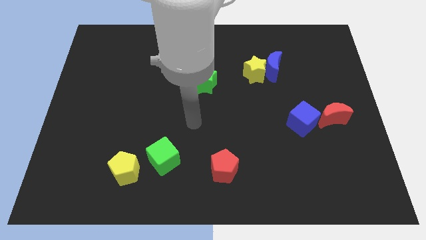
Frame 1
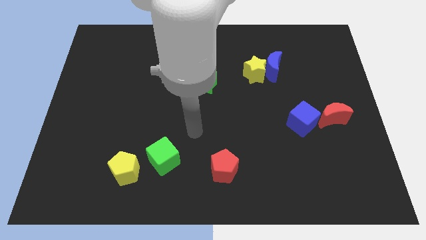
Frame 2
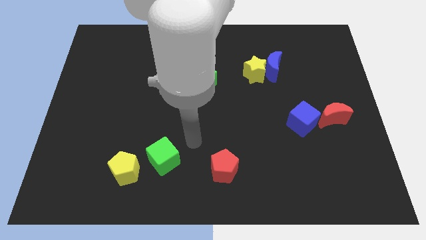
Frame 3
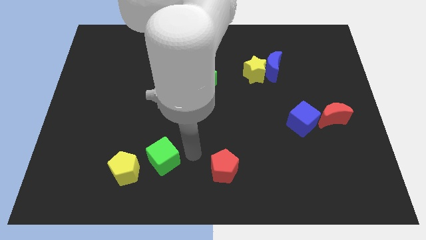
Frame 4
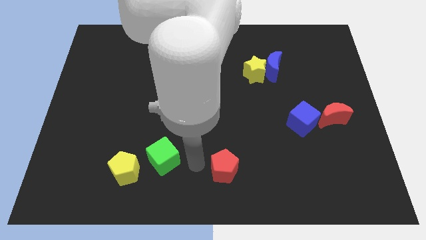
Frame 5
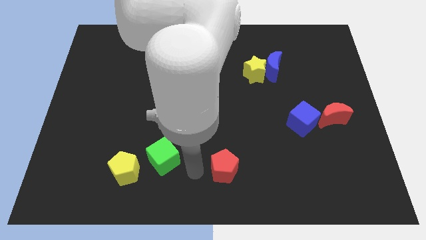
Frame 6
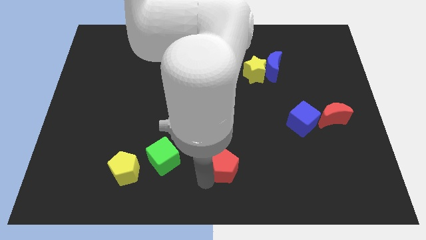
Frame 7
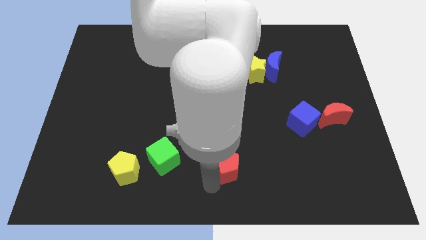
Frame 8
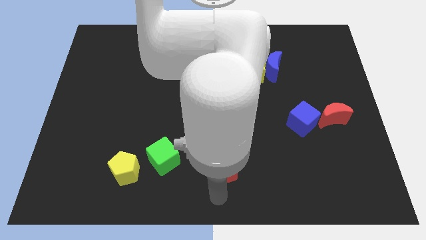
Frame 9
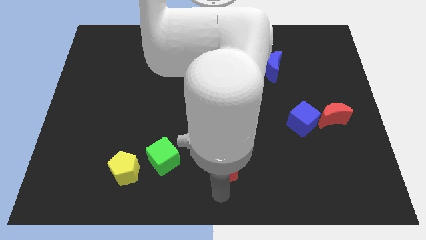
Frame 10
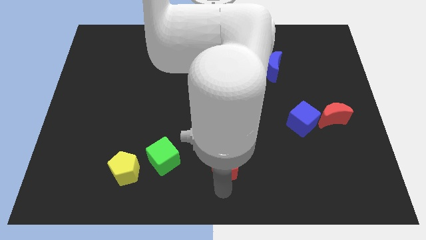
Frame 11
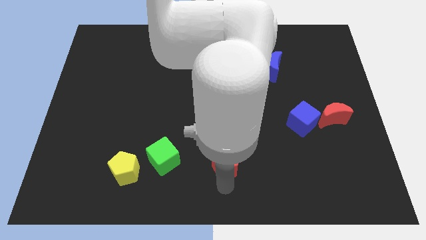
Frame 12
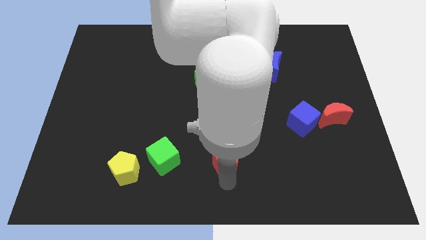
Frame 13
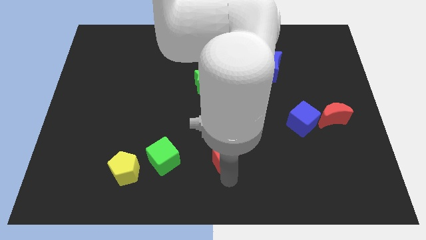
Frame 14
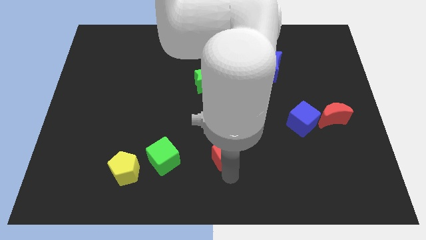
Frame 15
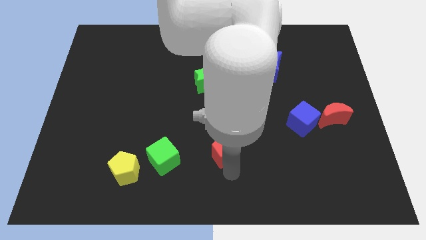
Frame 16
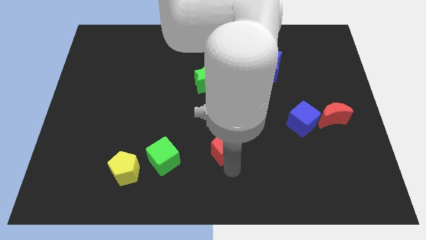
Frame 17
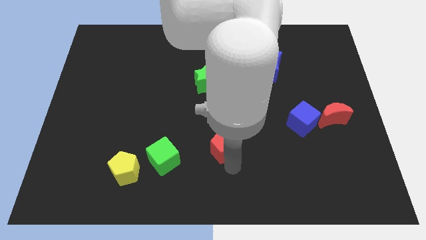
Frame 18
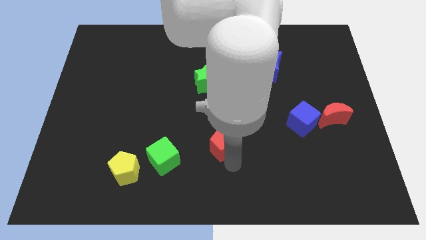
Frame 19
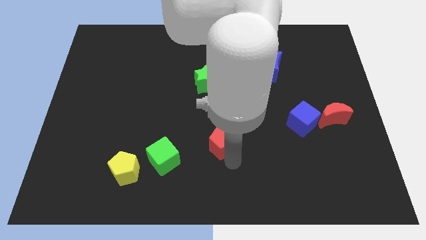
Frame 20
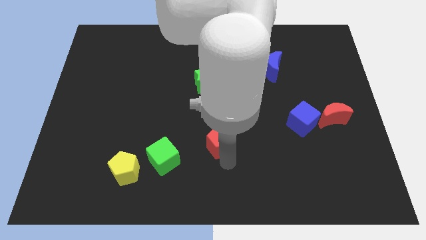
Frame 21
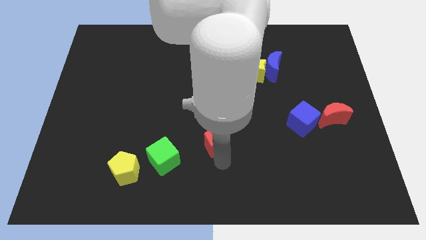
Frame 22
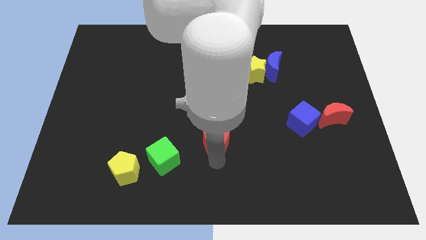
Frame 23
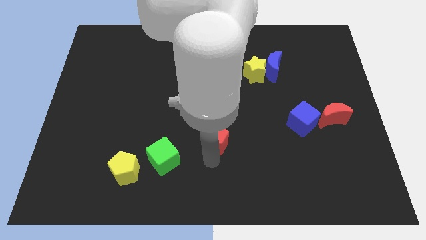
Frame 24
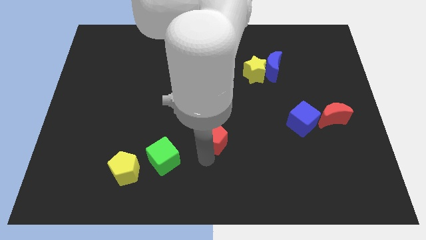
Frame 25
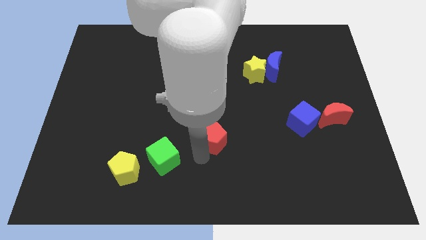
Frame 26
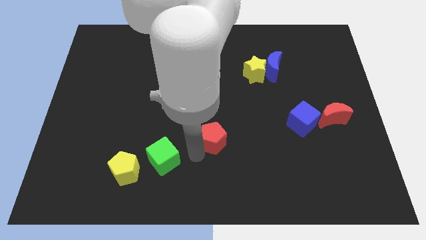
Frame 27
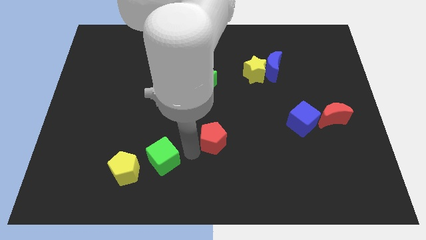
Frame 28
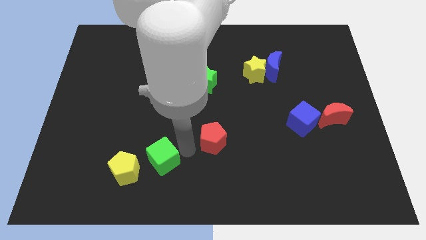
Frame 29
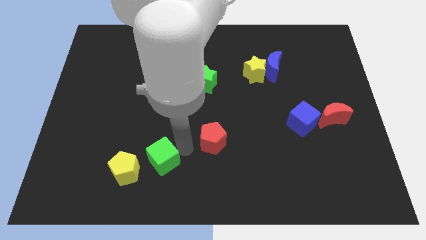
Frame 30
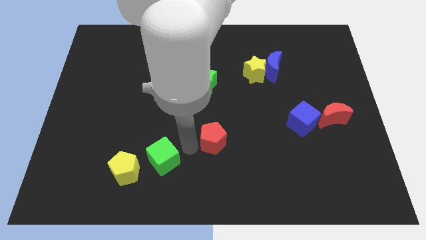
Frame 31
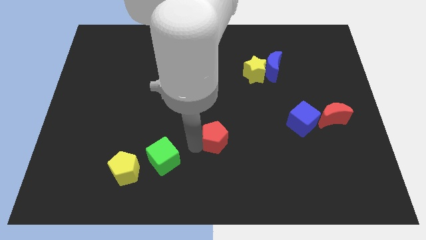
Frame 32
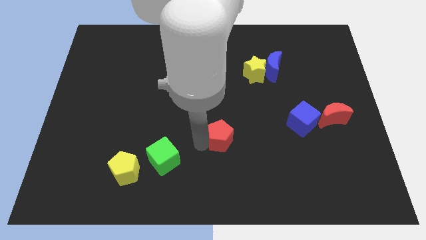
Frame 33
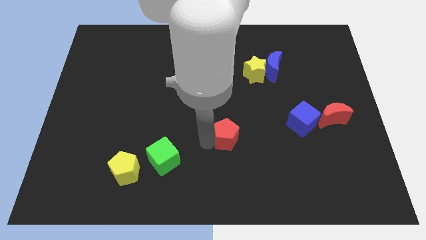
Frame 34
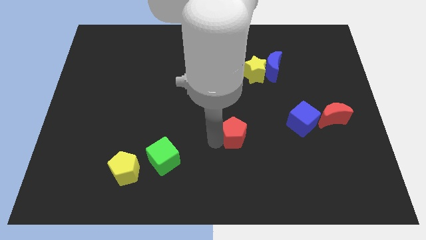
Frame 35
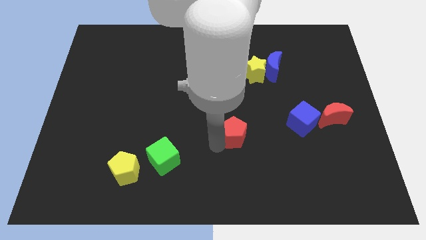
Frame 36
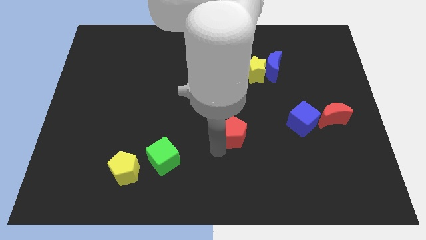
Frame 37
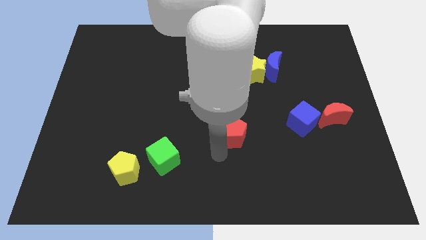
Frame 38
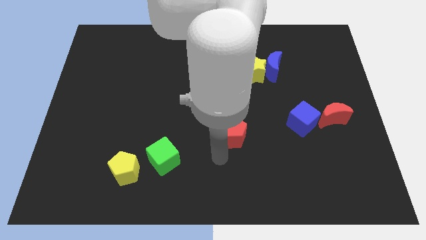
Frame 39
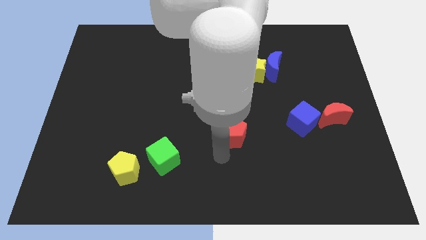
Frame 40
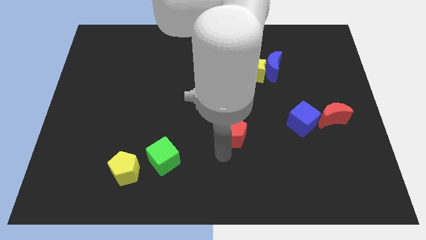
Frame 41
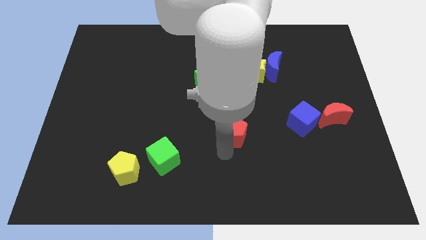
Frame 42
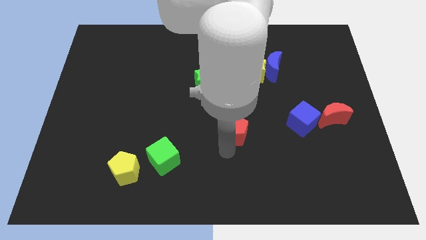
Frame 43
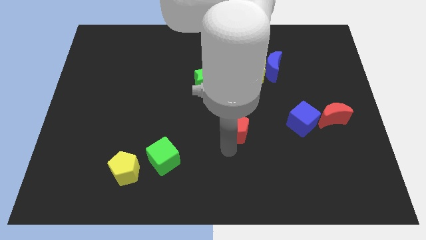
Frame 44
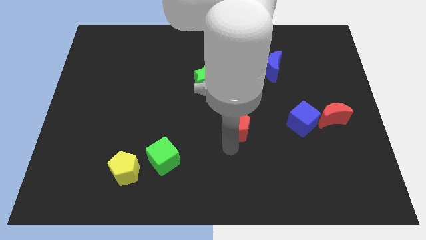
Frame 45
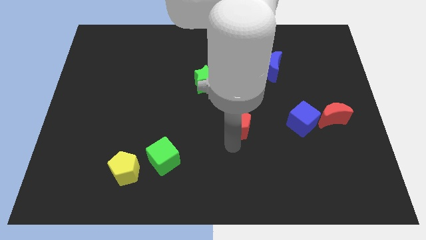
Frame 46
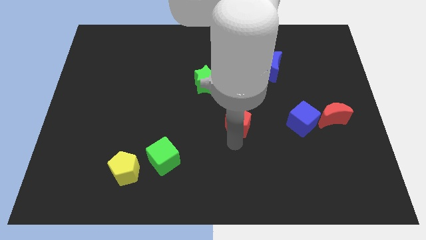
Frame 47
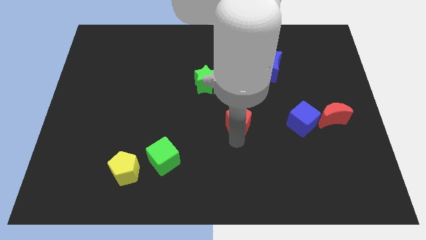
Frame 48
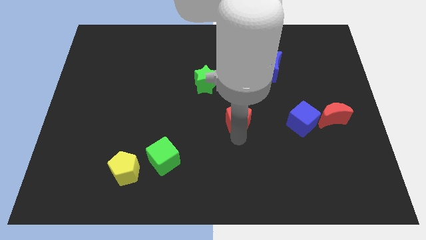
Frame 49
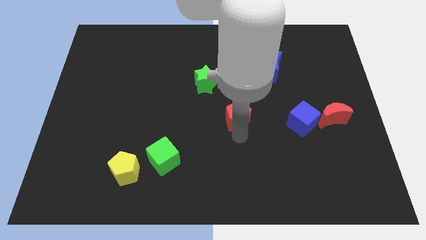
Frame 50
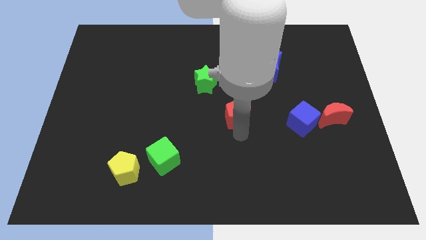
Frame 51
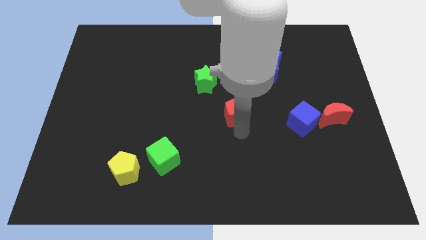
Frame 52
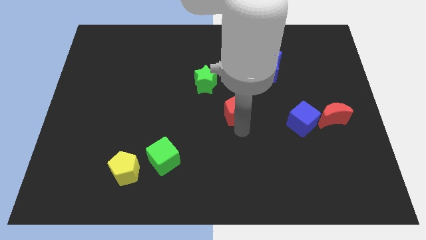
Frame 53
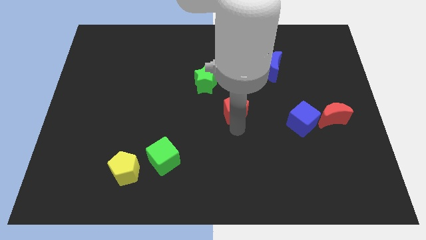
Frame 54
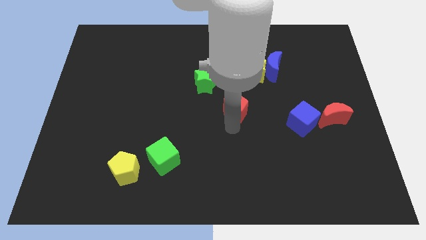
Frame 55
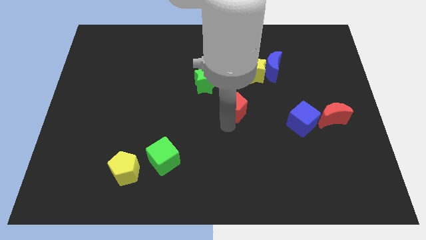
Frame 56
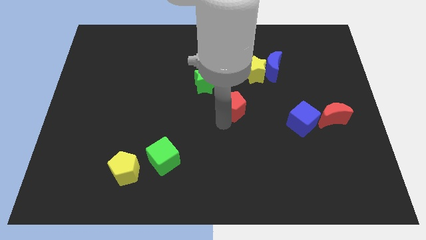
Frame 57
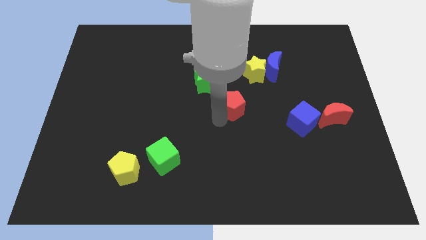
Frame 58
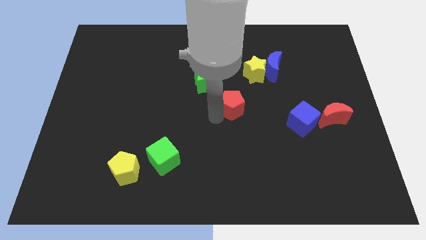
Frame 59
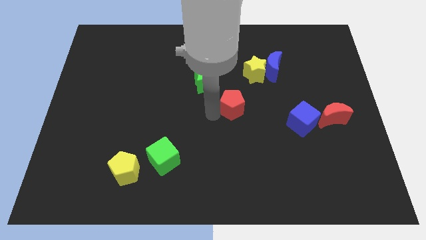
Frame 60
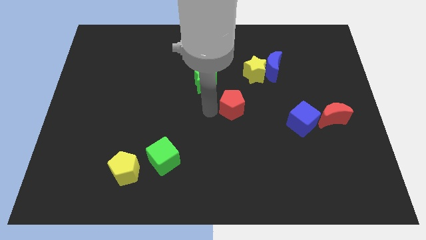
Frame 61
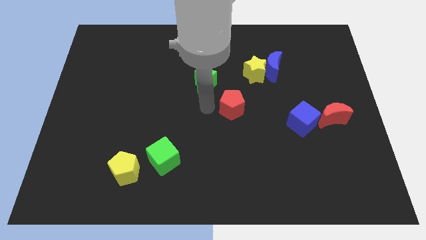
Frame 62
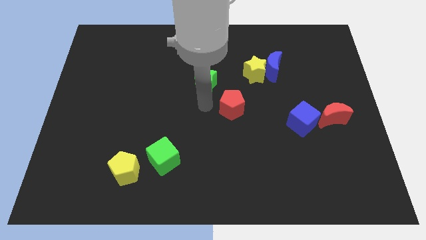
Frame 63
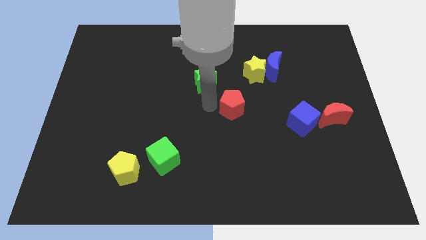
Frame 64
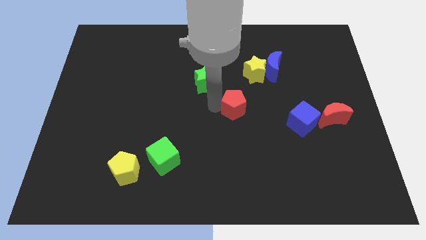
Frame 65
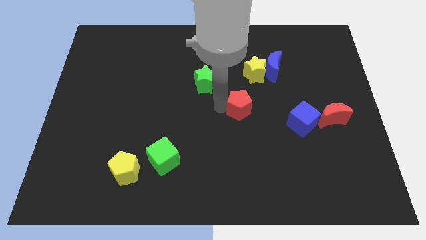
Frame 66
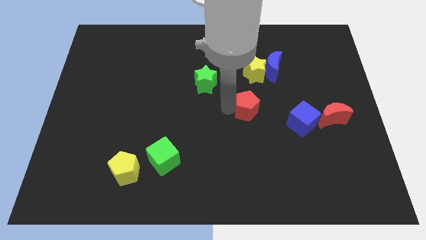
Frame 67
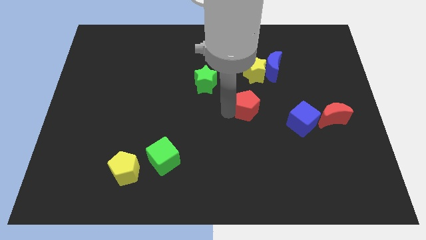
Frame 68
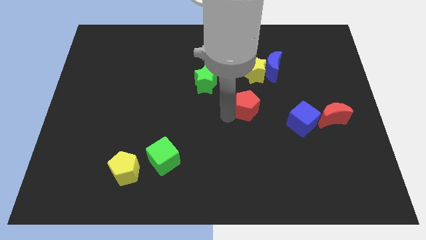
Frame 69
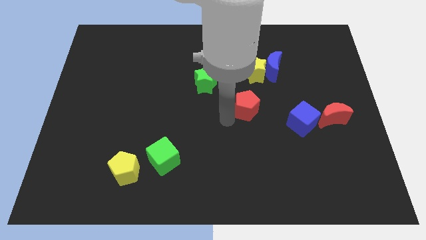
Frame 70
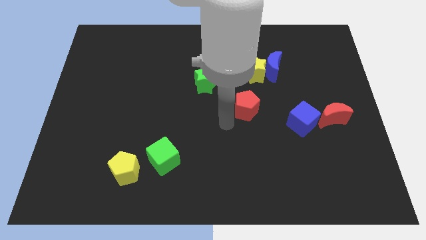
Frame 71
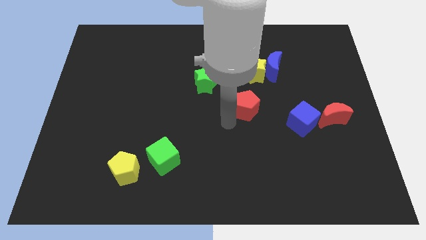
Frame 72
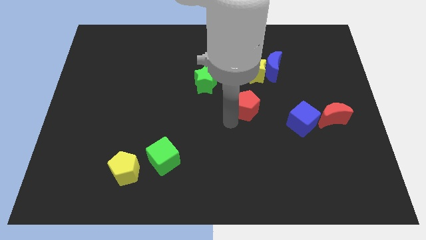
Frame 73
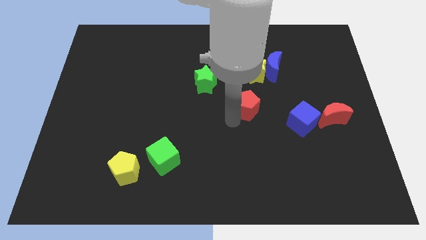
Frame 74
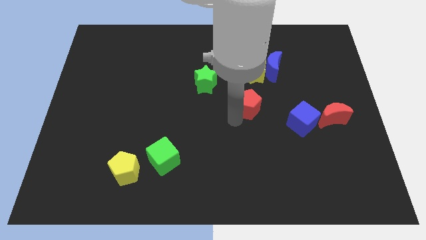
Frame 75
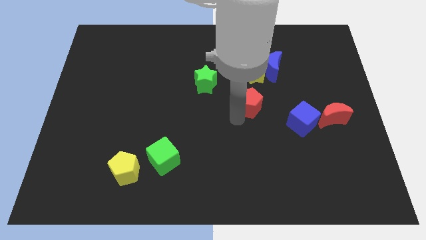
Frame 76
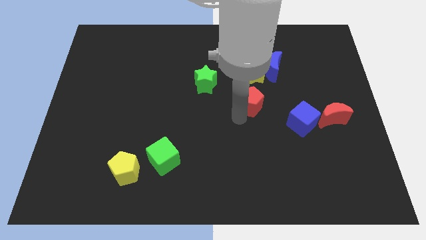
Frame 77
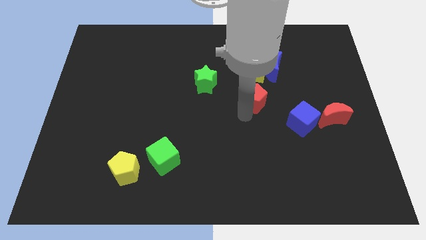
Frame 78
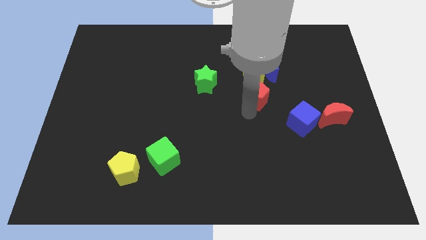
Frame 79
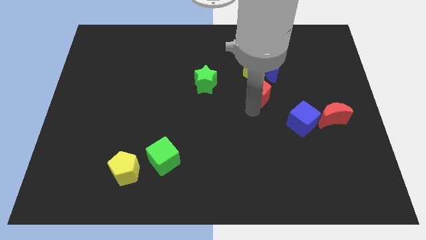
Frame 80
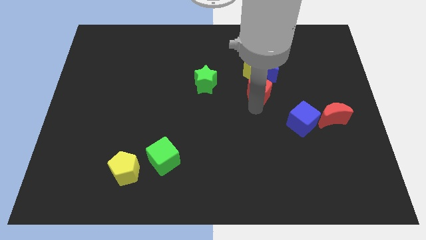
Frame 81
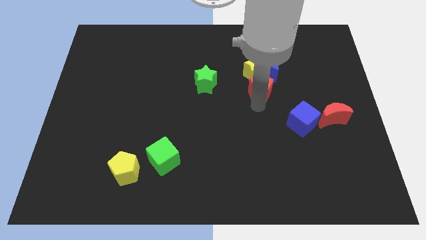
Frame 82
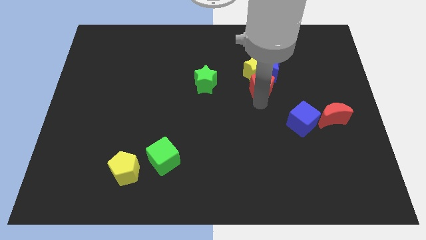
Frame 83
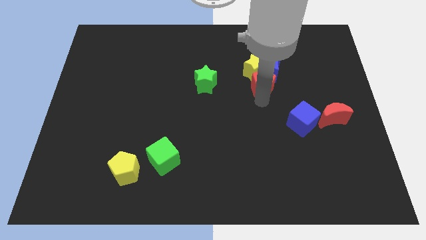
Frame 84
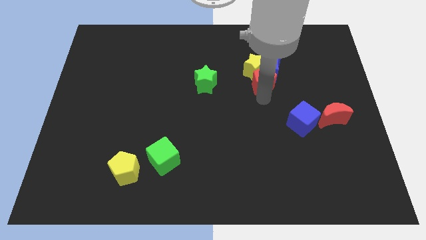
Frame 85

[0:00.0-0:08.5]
move the red pentagon close to the blue moon
